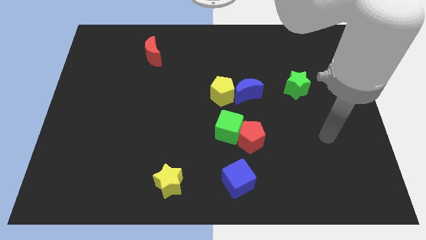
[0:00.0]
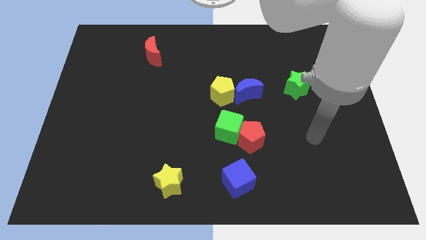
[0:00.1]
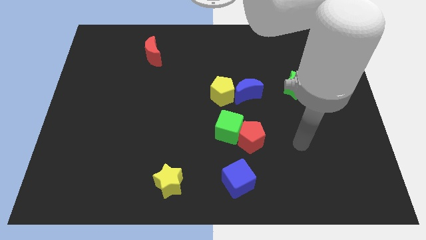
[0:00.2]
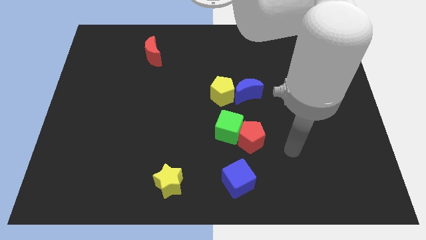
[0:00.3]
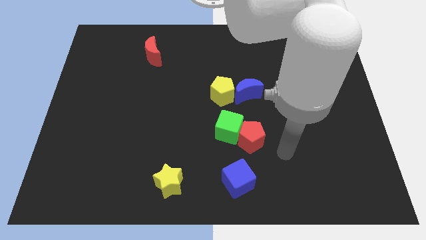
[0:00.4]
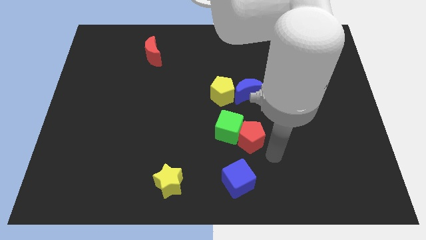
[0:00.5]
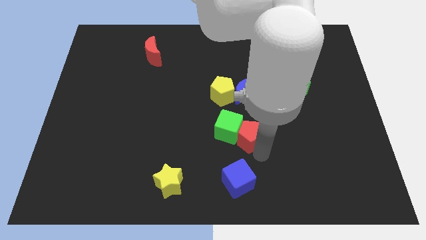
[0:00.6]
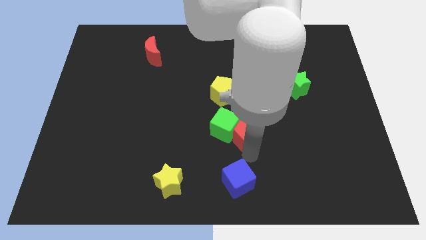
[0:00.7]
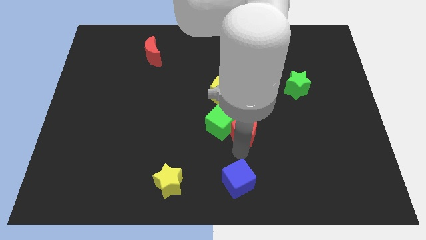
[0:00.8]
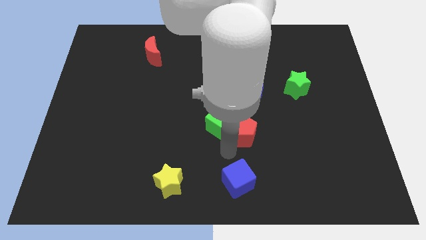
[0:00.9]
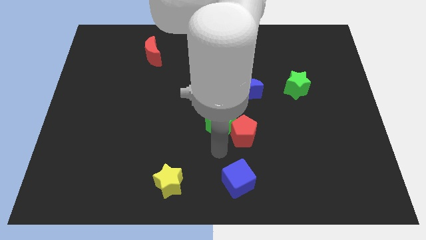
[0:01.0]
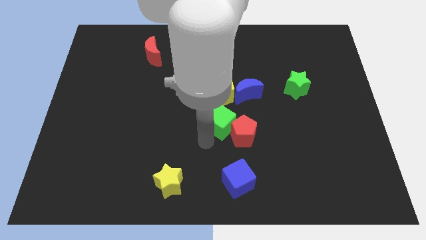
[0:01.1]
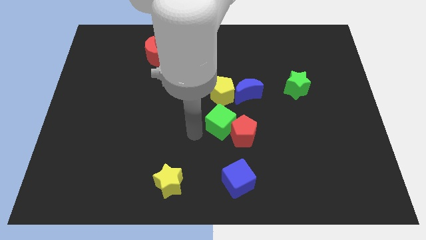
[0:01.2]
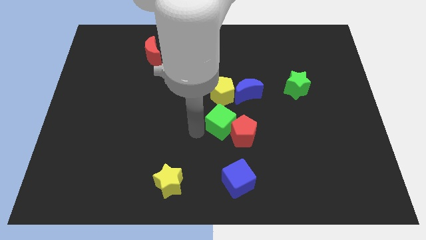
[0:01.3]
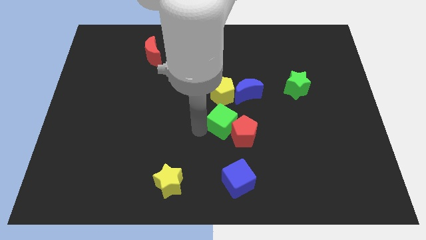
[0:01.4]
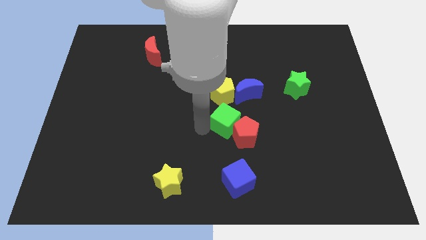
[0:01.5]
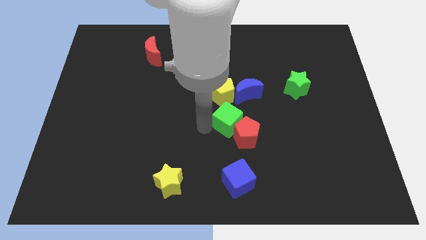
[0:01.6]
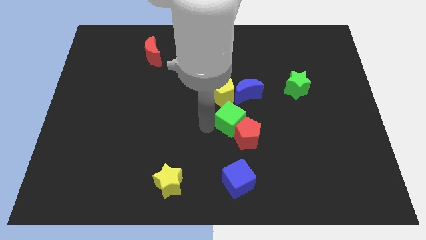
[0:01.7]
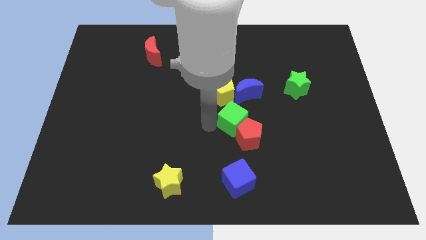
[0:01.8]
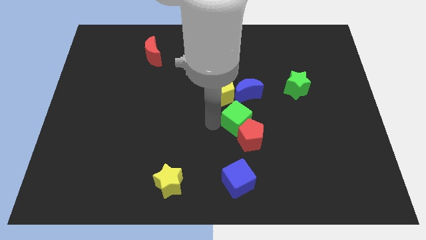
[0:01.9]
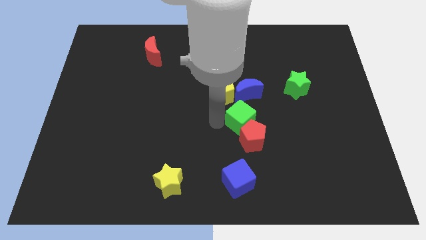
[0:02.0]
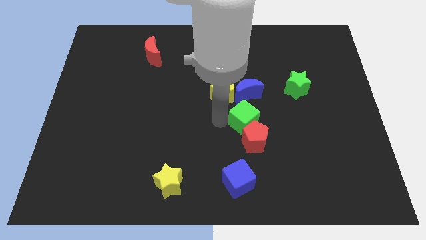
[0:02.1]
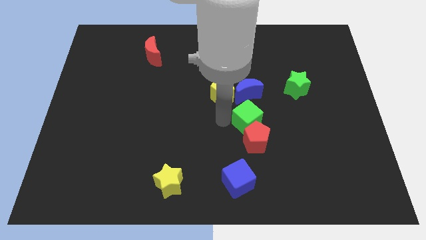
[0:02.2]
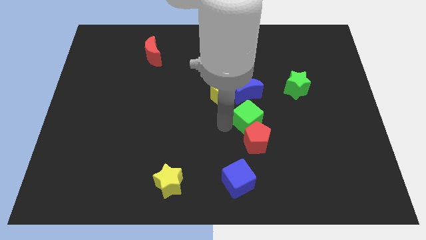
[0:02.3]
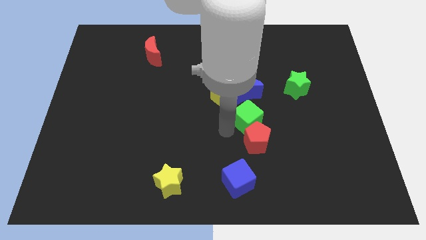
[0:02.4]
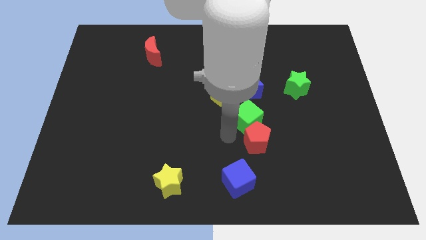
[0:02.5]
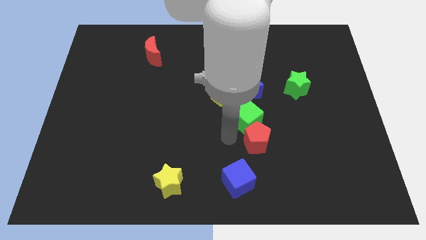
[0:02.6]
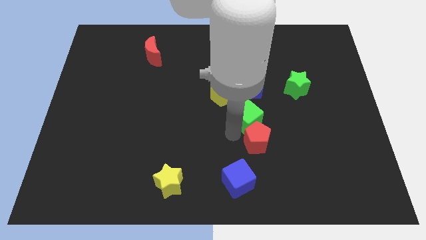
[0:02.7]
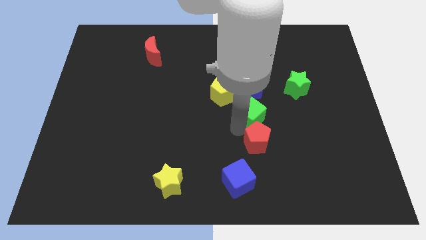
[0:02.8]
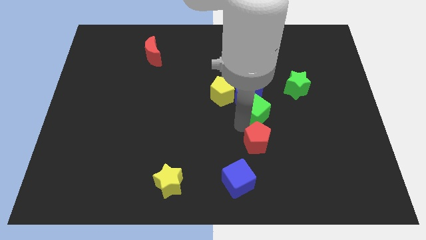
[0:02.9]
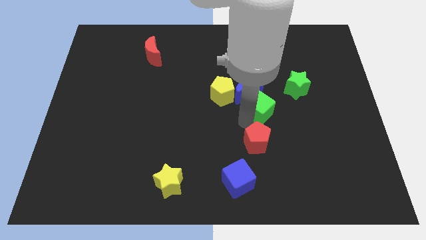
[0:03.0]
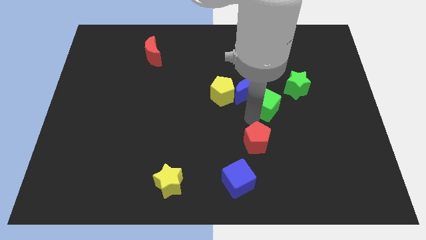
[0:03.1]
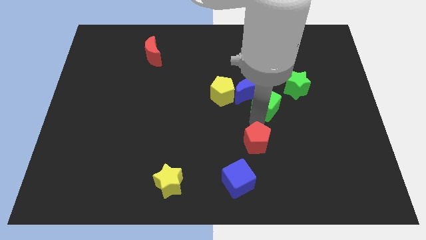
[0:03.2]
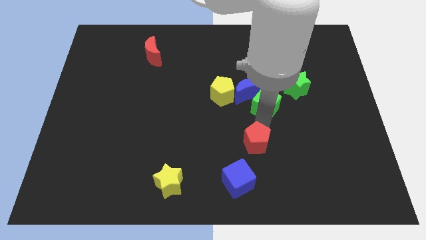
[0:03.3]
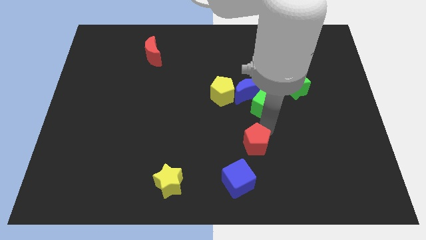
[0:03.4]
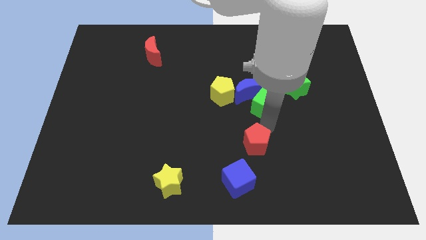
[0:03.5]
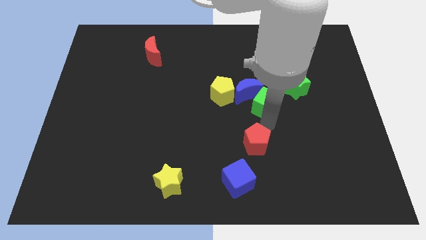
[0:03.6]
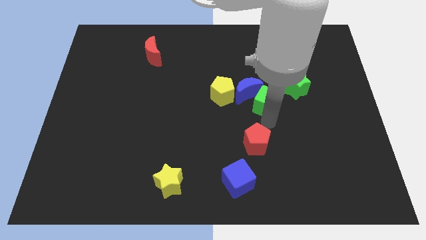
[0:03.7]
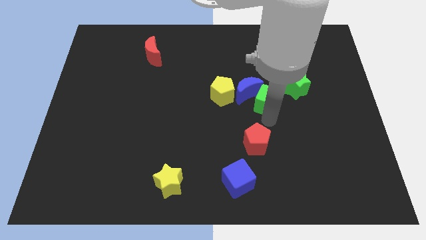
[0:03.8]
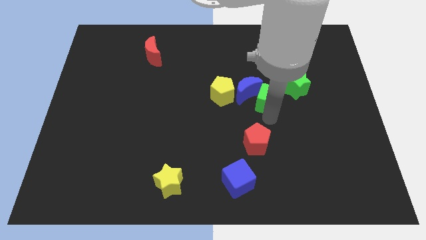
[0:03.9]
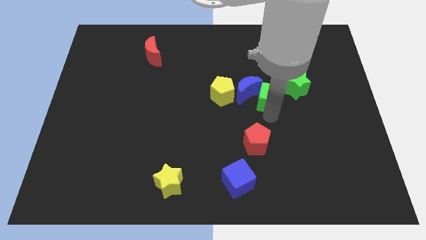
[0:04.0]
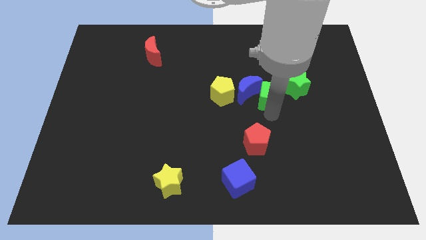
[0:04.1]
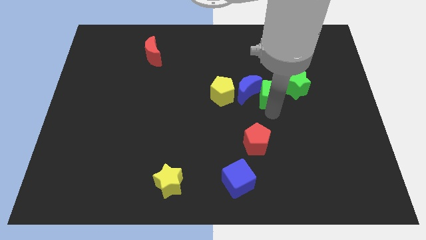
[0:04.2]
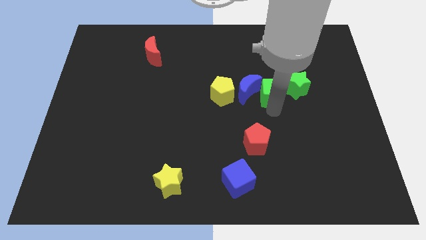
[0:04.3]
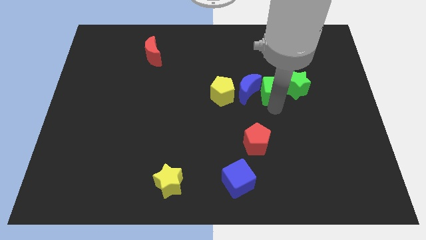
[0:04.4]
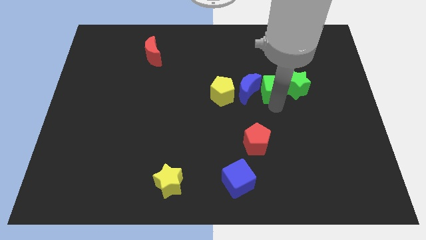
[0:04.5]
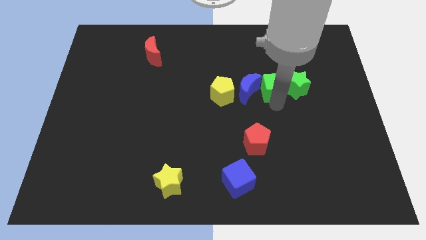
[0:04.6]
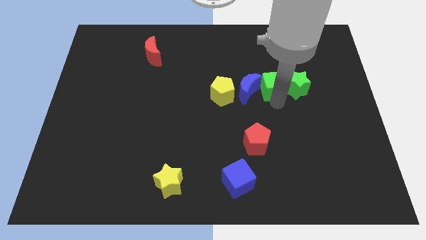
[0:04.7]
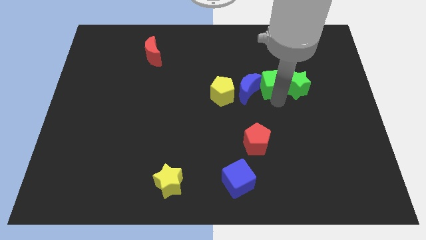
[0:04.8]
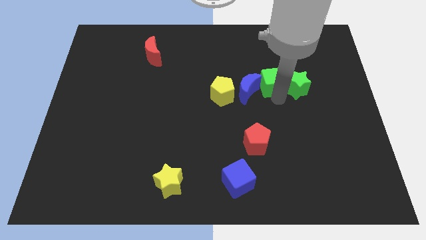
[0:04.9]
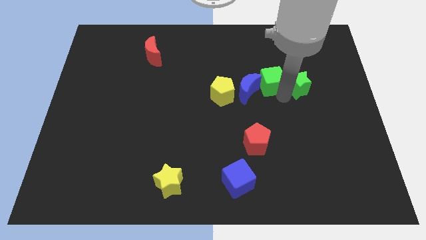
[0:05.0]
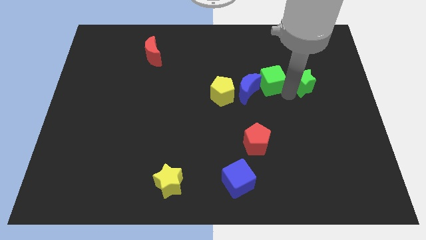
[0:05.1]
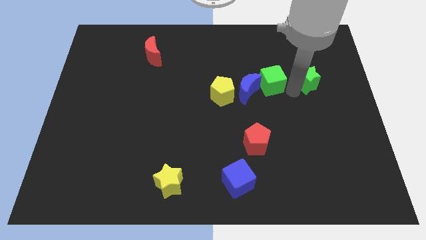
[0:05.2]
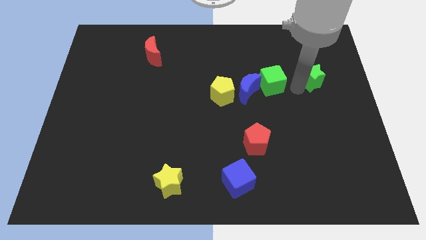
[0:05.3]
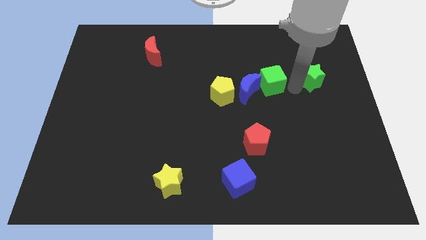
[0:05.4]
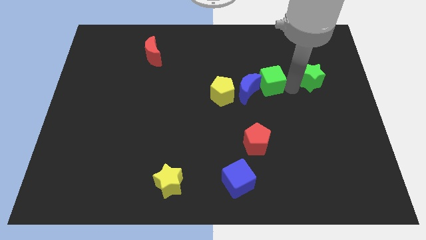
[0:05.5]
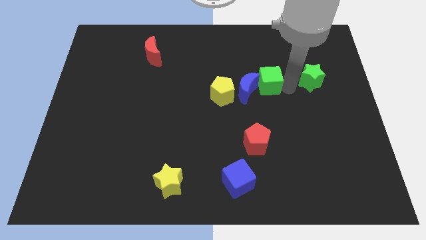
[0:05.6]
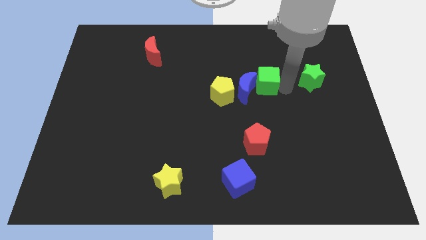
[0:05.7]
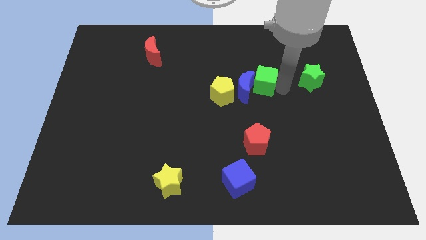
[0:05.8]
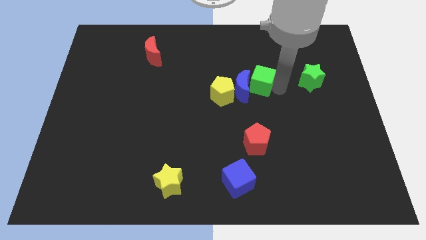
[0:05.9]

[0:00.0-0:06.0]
slide the green cube to the top right of the yellow pentagon
